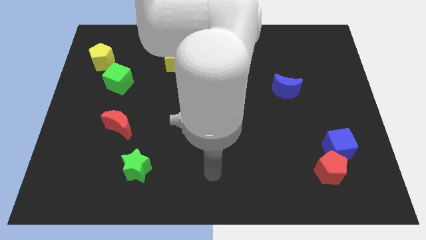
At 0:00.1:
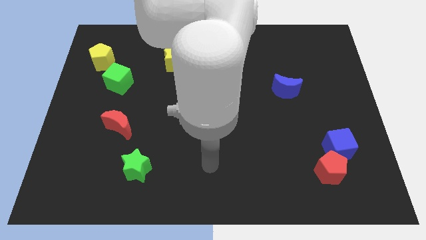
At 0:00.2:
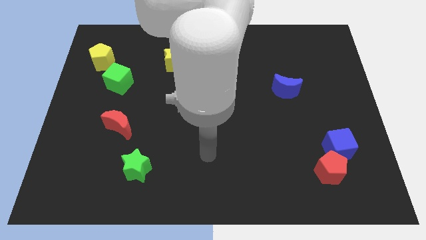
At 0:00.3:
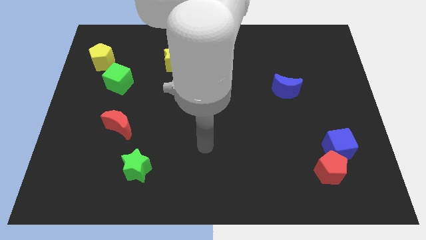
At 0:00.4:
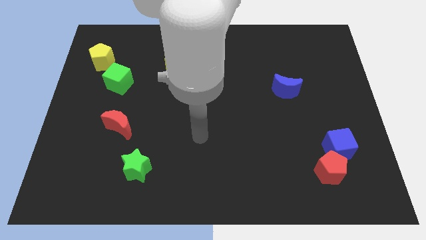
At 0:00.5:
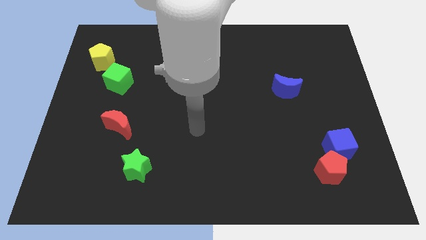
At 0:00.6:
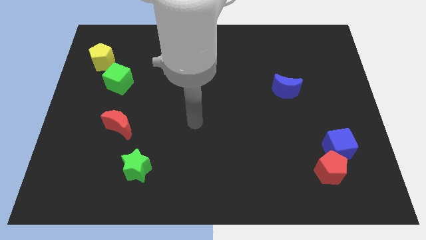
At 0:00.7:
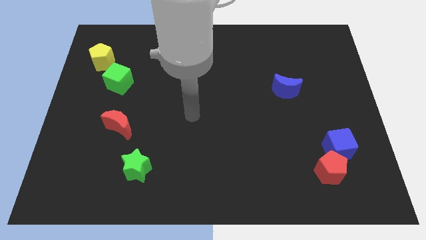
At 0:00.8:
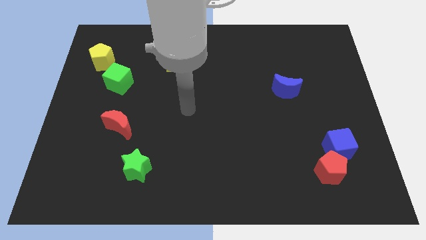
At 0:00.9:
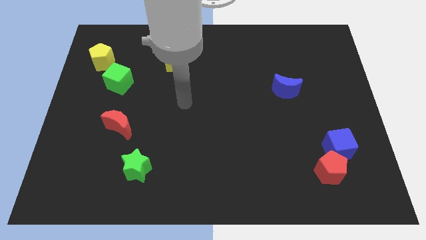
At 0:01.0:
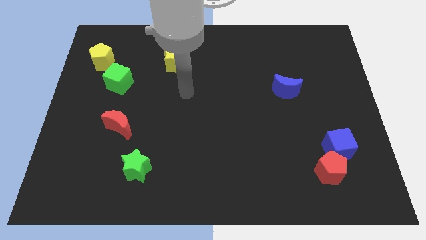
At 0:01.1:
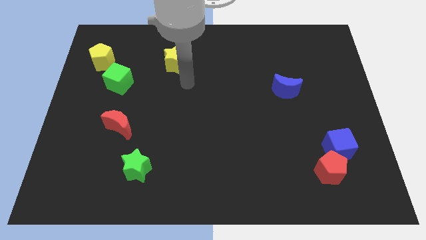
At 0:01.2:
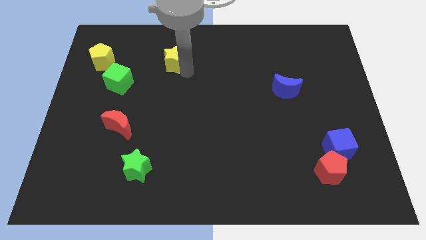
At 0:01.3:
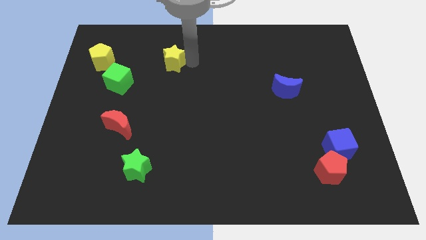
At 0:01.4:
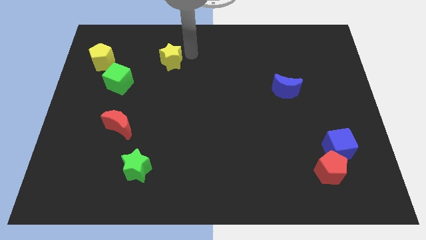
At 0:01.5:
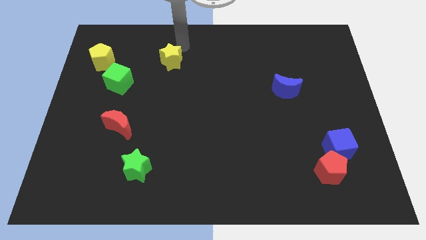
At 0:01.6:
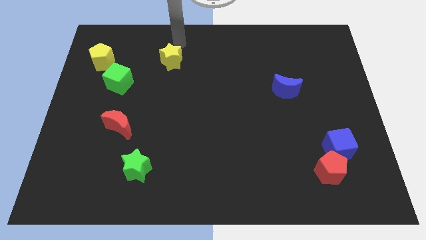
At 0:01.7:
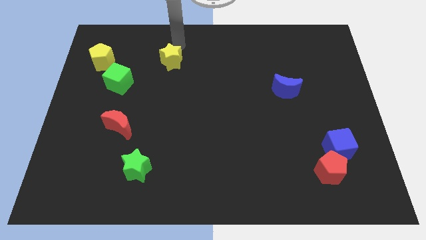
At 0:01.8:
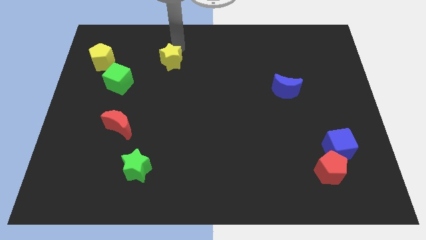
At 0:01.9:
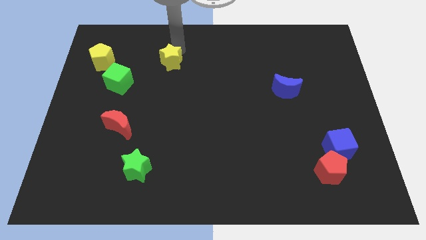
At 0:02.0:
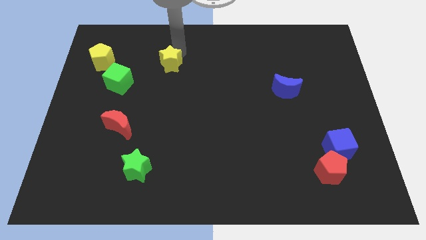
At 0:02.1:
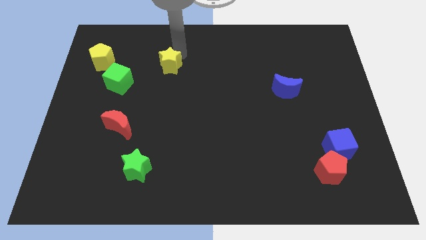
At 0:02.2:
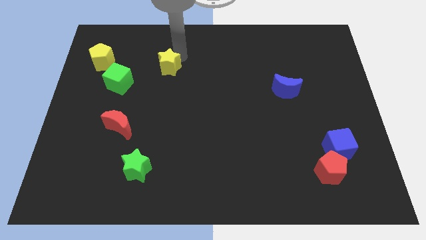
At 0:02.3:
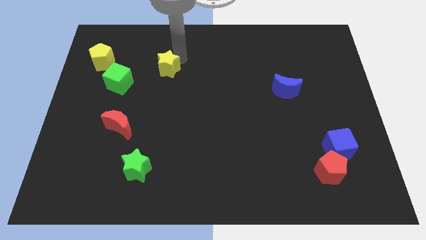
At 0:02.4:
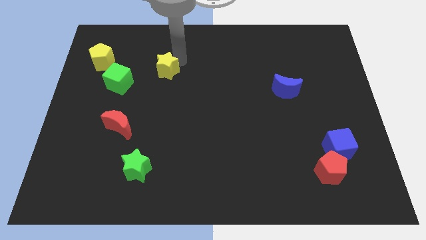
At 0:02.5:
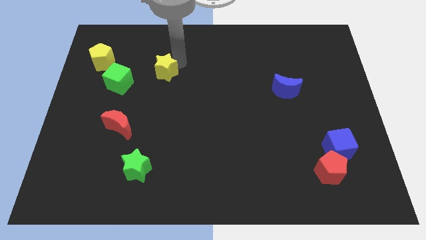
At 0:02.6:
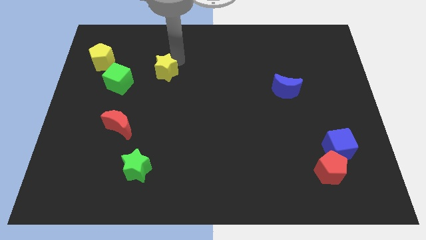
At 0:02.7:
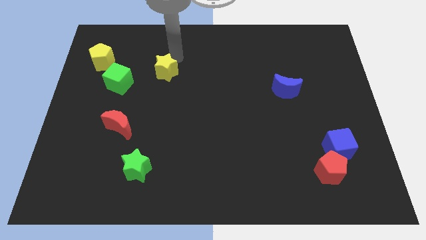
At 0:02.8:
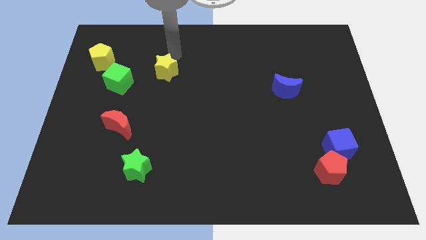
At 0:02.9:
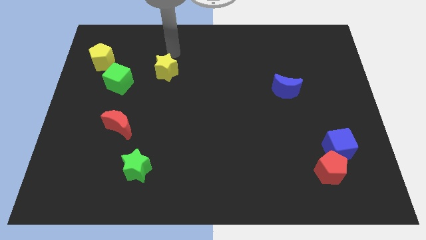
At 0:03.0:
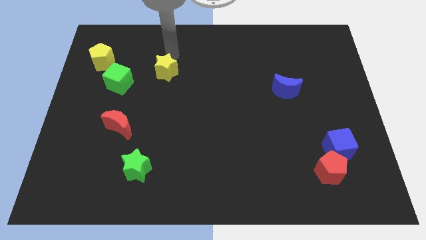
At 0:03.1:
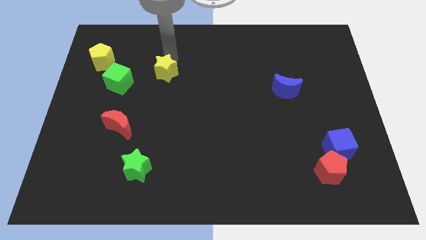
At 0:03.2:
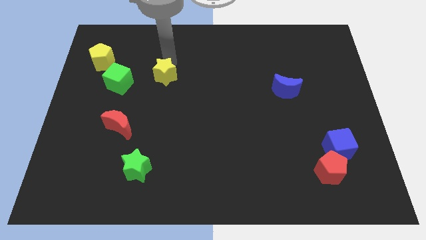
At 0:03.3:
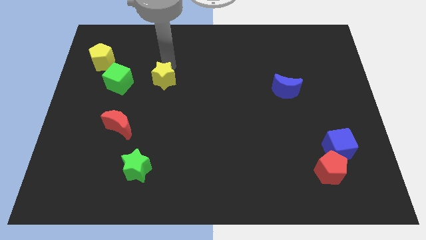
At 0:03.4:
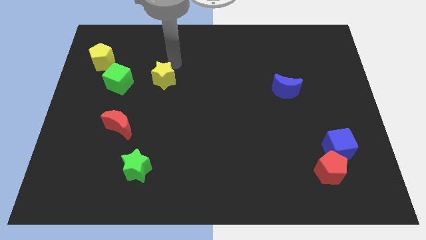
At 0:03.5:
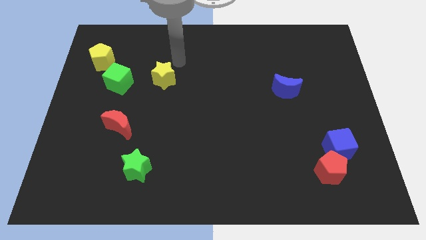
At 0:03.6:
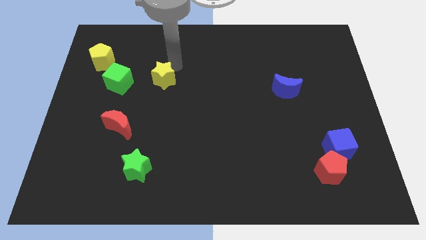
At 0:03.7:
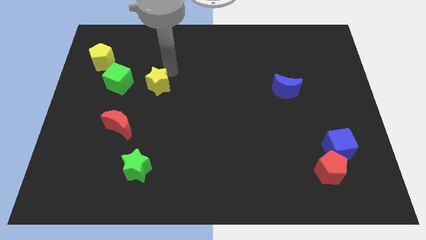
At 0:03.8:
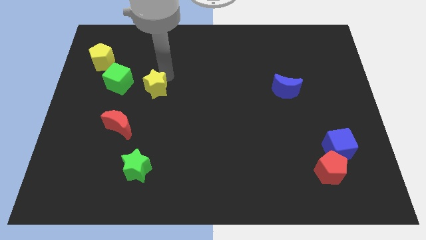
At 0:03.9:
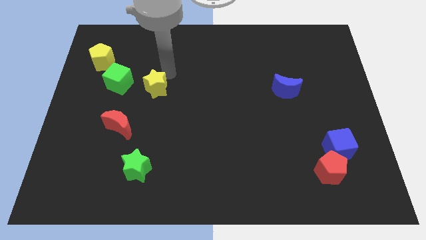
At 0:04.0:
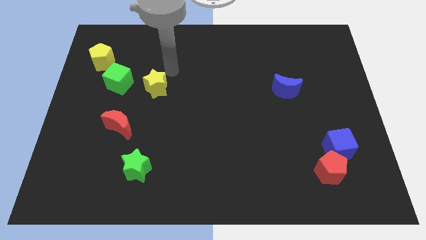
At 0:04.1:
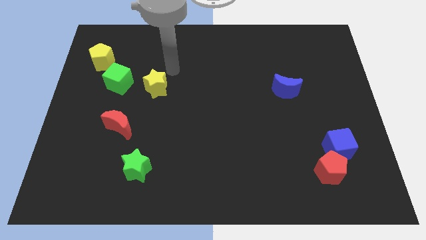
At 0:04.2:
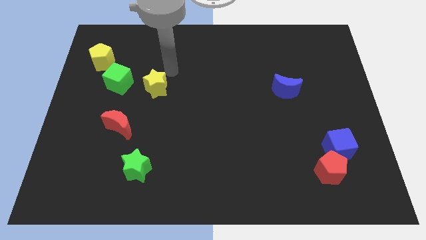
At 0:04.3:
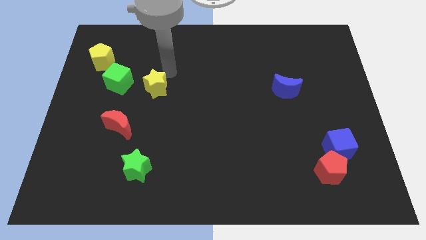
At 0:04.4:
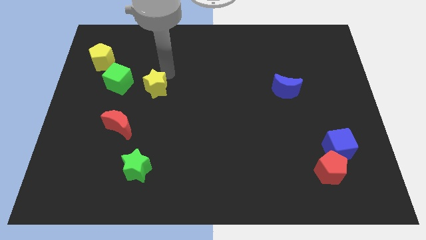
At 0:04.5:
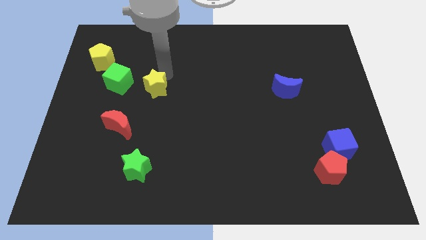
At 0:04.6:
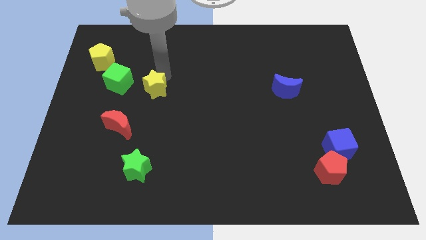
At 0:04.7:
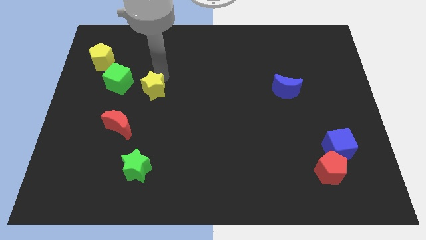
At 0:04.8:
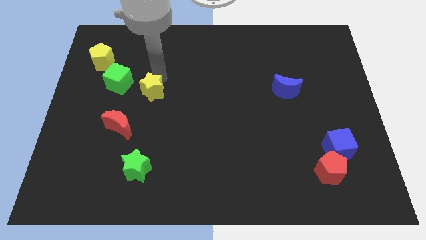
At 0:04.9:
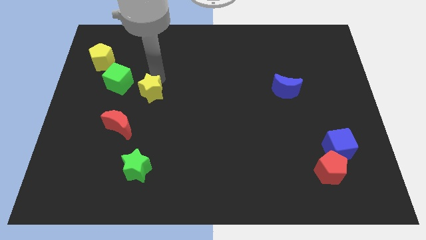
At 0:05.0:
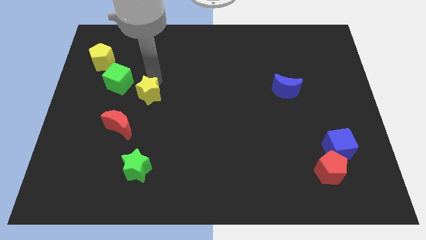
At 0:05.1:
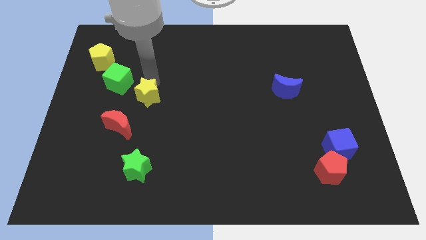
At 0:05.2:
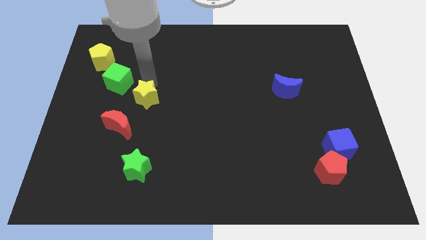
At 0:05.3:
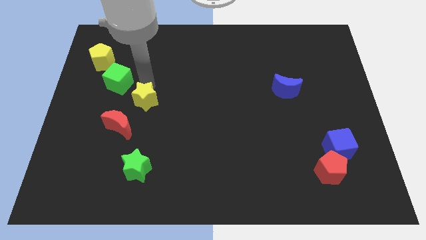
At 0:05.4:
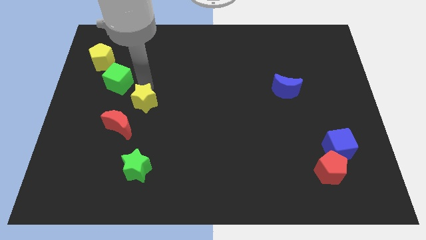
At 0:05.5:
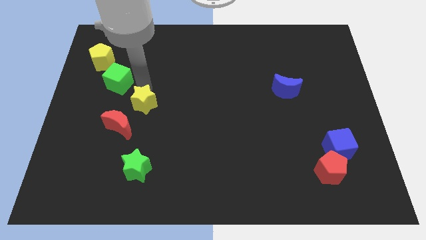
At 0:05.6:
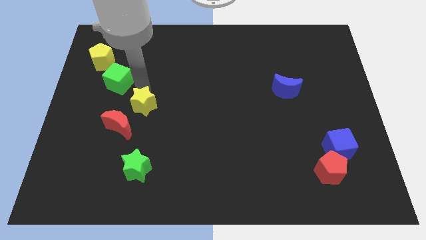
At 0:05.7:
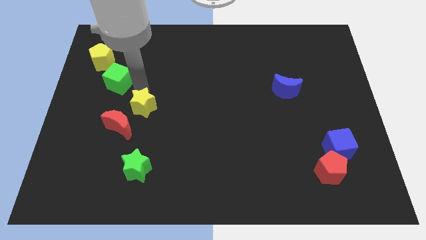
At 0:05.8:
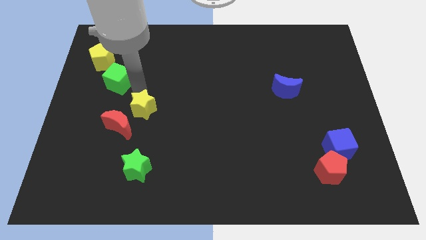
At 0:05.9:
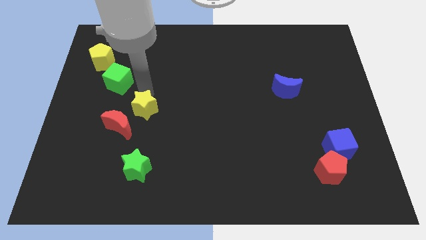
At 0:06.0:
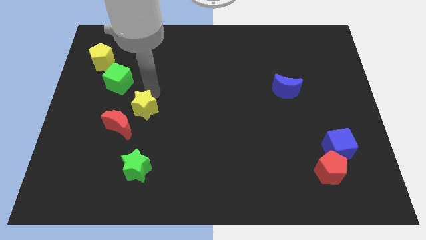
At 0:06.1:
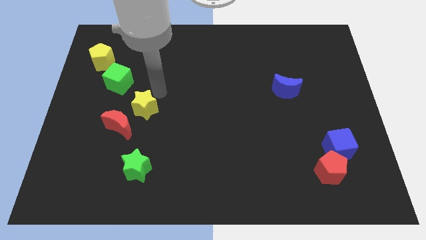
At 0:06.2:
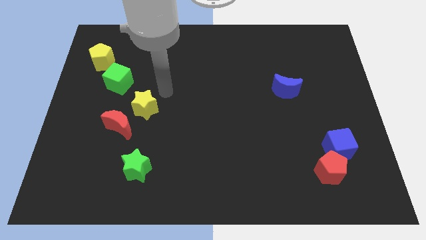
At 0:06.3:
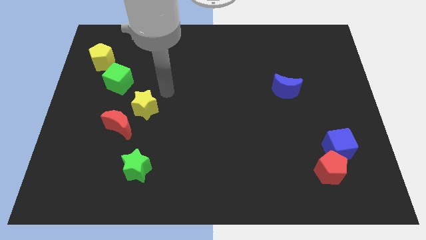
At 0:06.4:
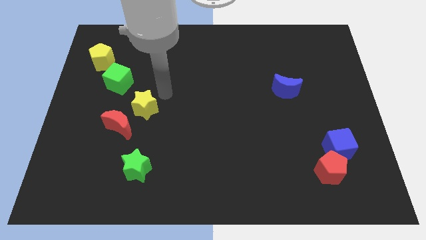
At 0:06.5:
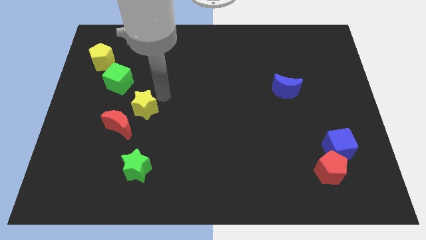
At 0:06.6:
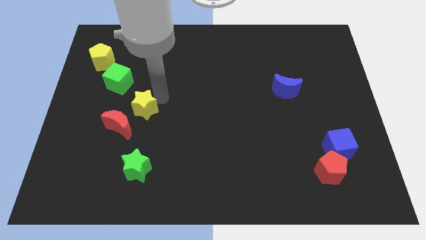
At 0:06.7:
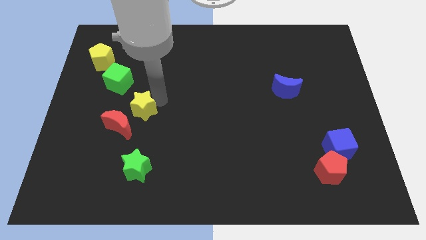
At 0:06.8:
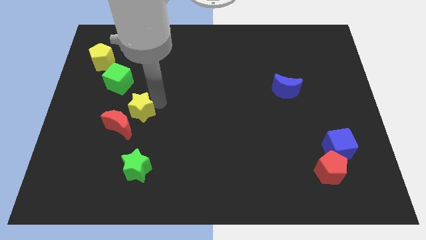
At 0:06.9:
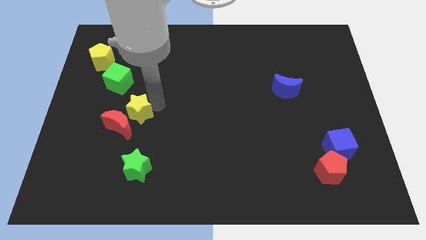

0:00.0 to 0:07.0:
move the yellow star next to the red moon
